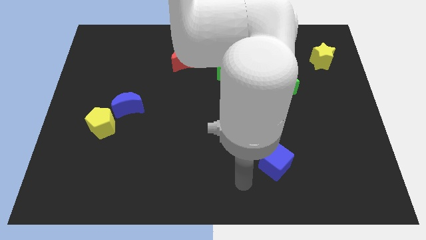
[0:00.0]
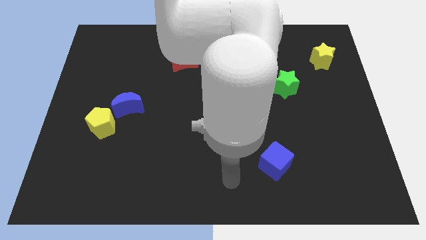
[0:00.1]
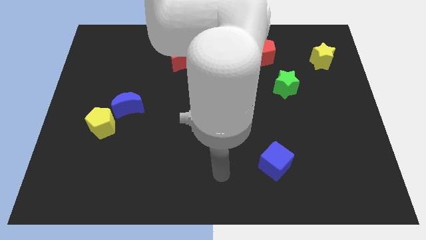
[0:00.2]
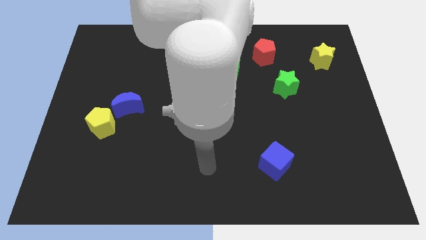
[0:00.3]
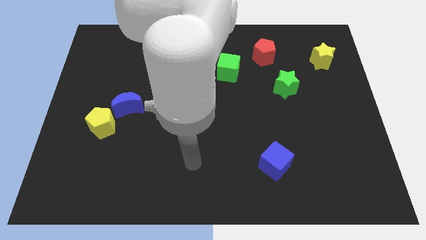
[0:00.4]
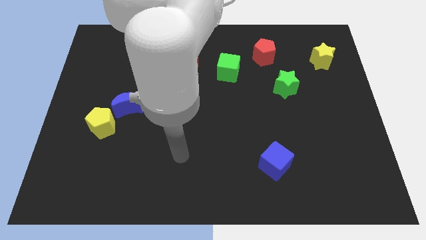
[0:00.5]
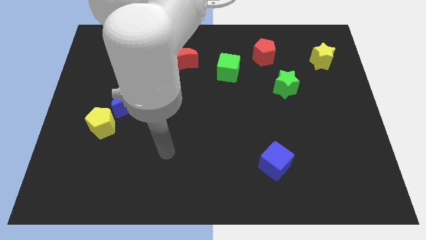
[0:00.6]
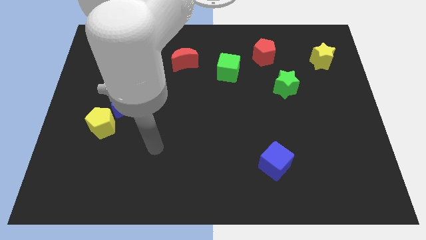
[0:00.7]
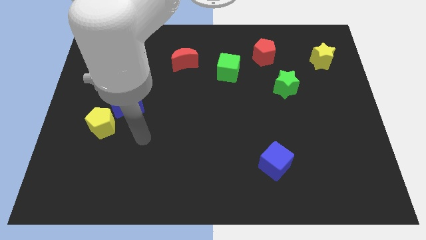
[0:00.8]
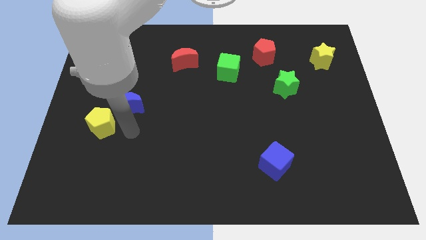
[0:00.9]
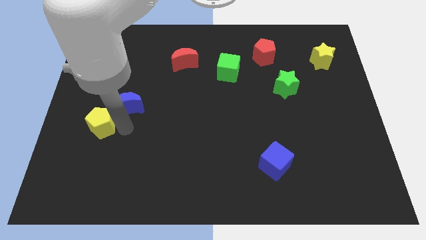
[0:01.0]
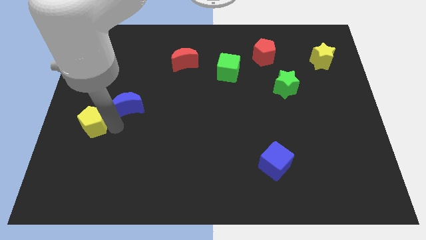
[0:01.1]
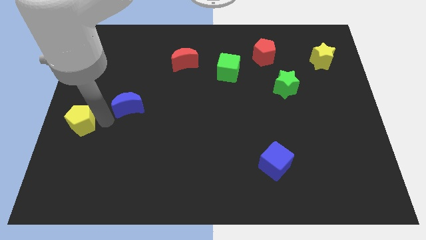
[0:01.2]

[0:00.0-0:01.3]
move the blue moon away from the yellow pentagon

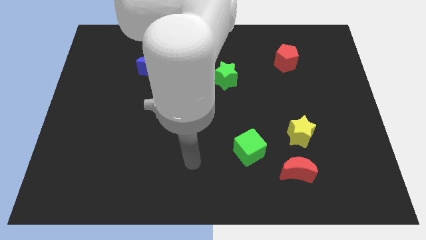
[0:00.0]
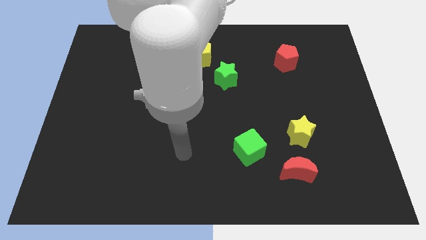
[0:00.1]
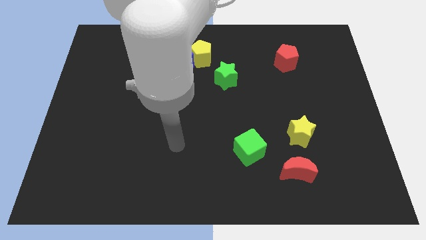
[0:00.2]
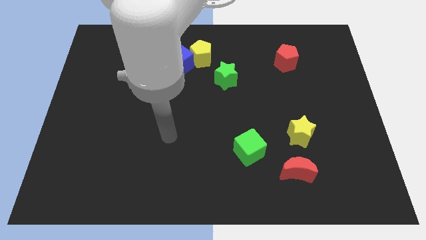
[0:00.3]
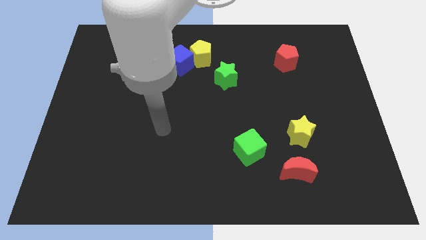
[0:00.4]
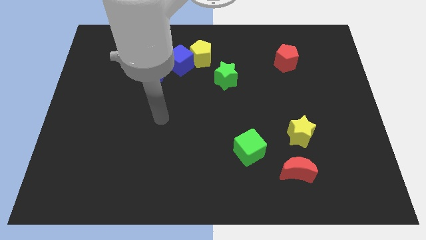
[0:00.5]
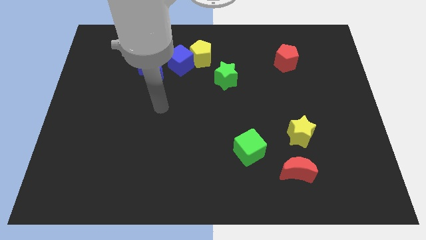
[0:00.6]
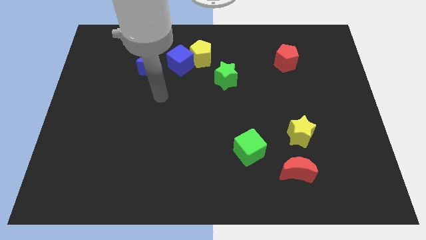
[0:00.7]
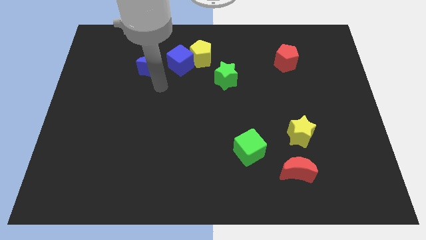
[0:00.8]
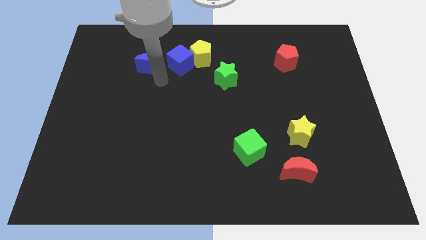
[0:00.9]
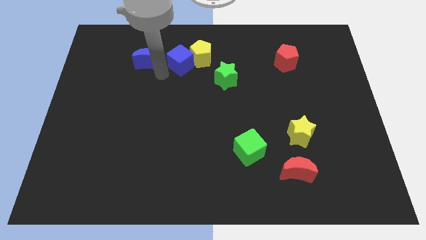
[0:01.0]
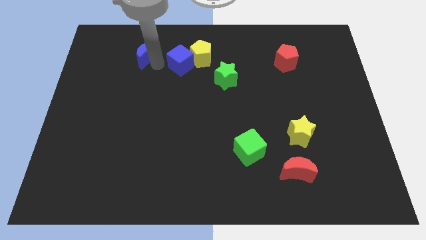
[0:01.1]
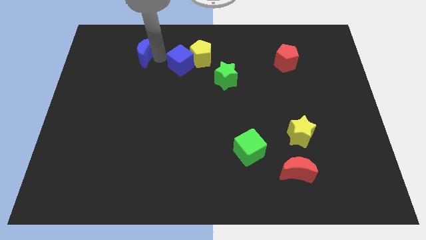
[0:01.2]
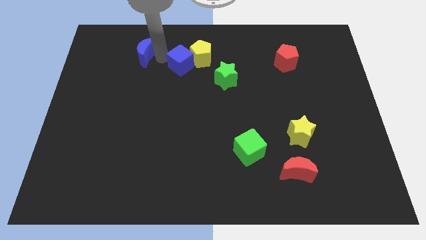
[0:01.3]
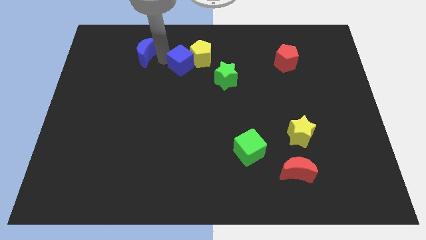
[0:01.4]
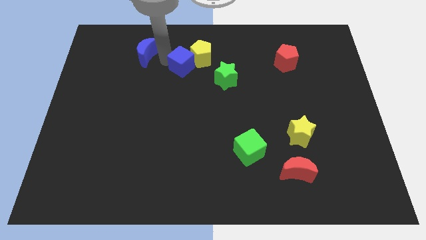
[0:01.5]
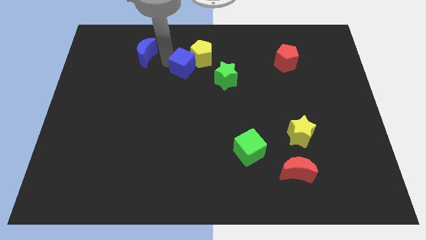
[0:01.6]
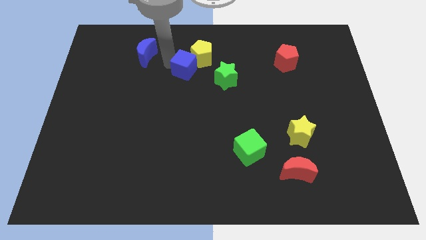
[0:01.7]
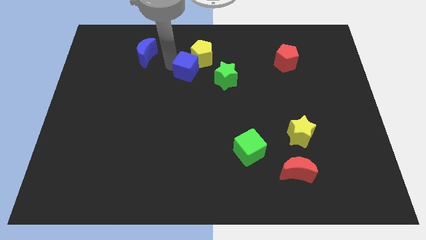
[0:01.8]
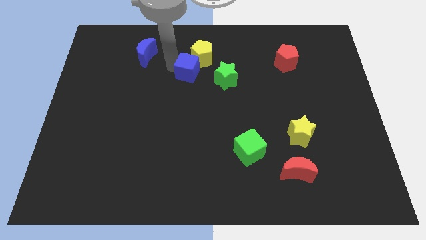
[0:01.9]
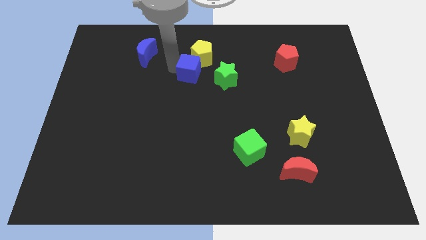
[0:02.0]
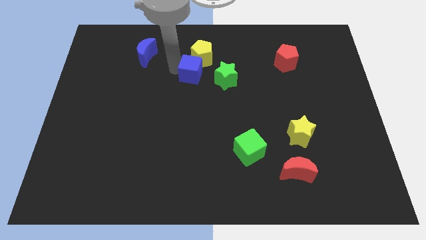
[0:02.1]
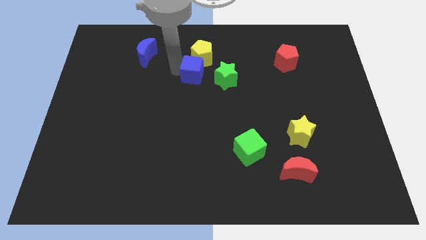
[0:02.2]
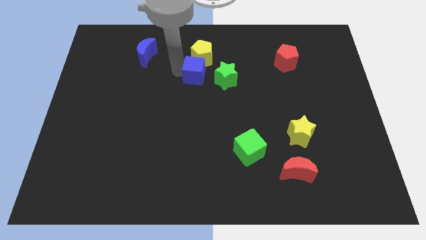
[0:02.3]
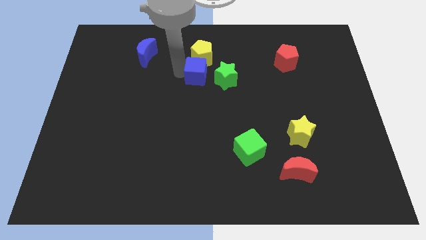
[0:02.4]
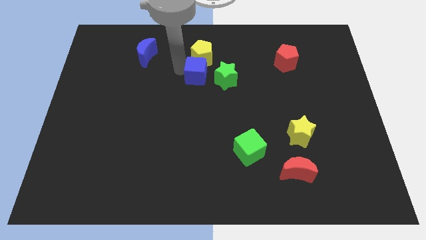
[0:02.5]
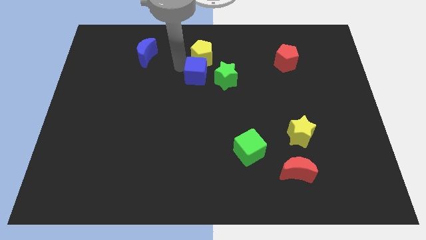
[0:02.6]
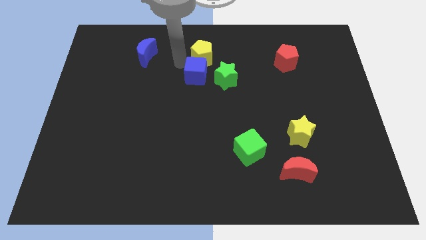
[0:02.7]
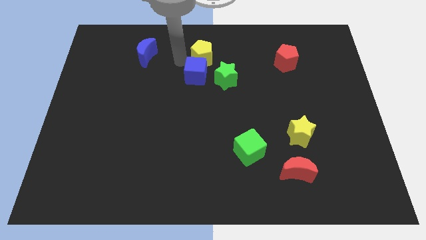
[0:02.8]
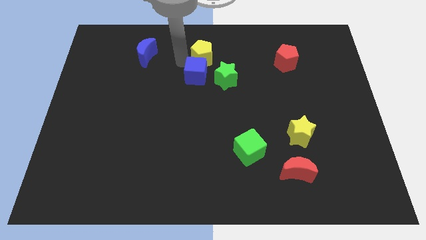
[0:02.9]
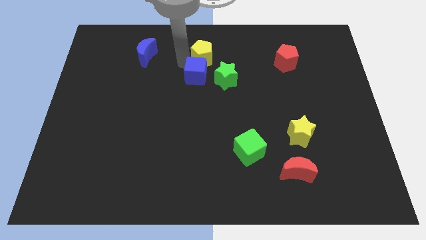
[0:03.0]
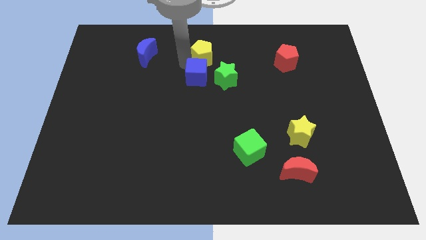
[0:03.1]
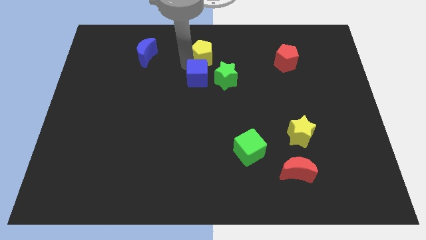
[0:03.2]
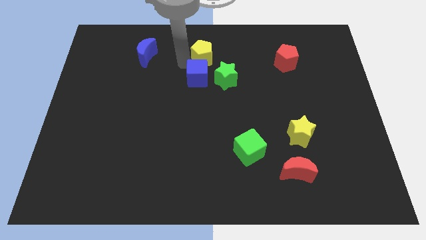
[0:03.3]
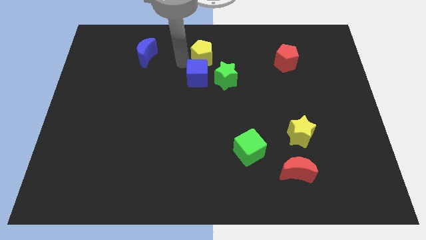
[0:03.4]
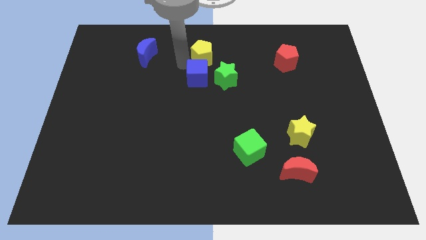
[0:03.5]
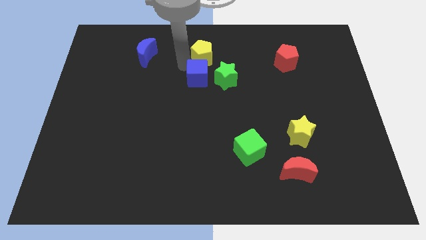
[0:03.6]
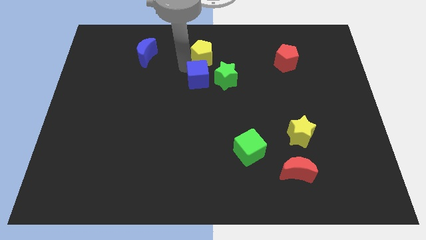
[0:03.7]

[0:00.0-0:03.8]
move the blue cube away from the yellow pentagon and blue moon

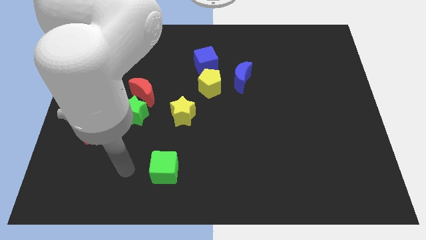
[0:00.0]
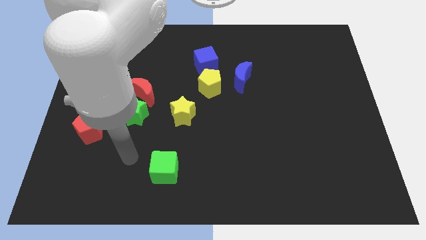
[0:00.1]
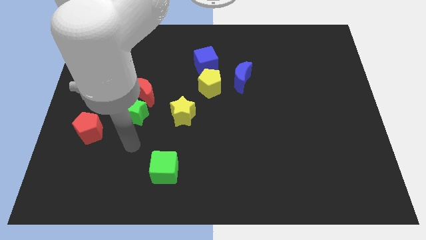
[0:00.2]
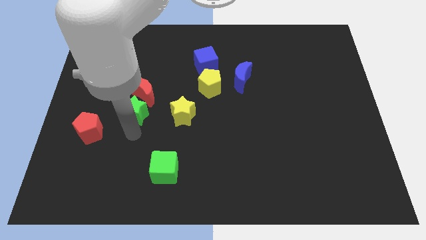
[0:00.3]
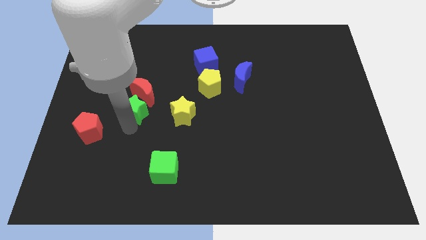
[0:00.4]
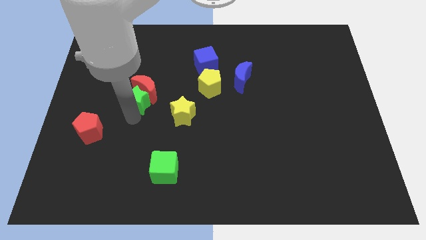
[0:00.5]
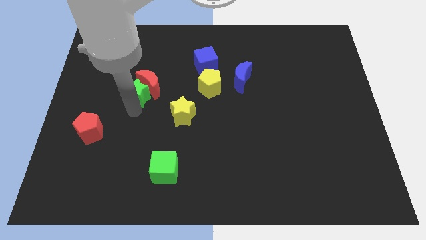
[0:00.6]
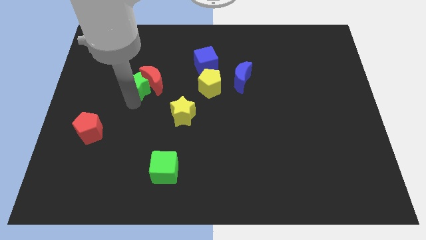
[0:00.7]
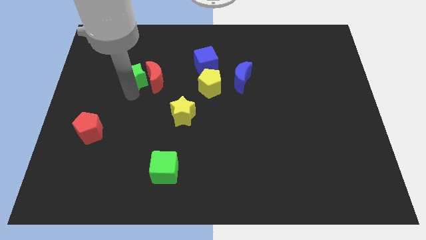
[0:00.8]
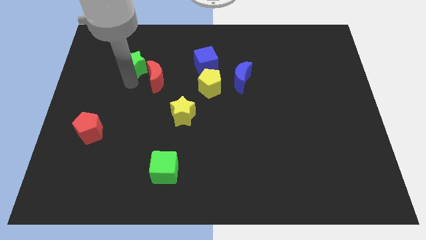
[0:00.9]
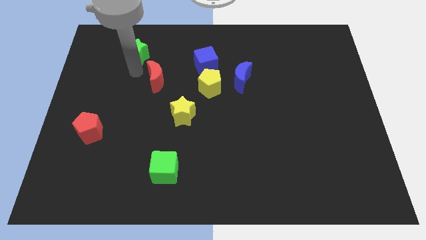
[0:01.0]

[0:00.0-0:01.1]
pull the red moon apart from the green star

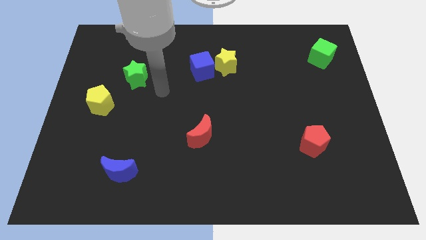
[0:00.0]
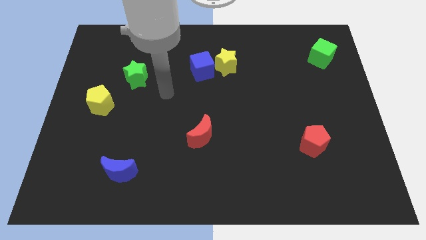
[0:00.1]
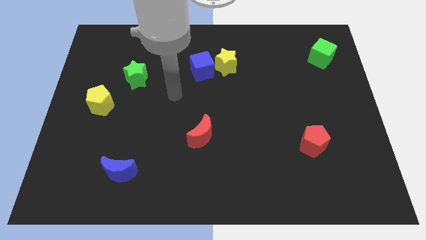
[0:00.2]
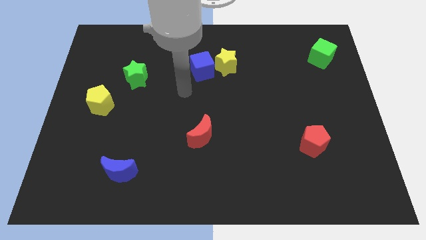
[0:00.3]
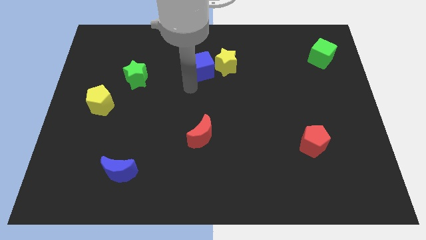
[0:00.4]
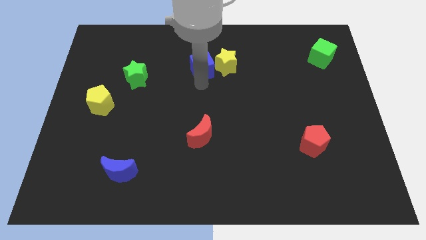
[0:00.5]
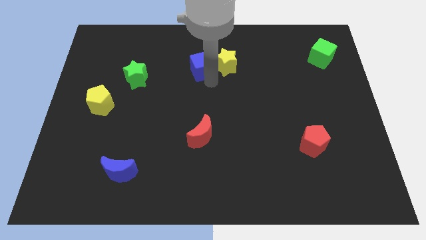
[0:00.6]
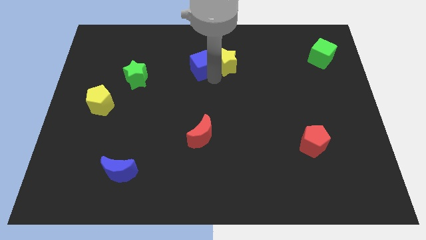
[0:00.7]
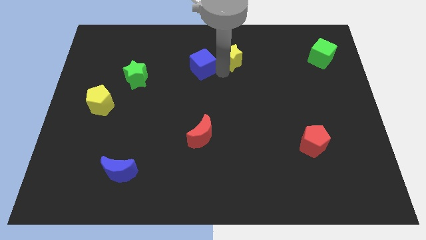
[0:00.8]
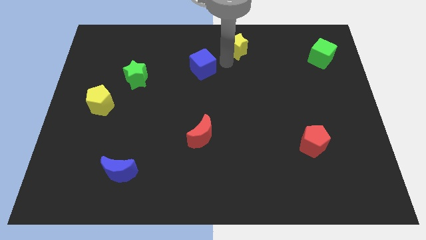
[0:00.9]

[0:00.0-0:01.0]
separate the blue cube from the yellow star

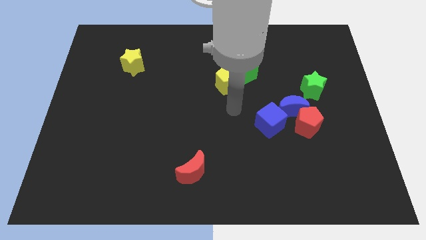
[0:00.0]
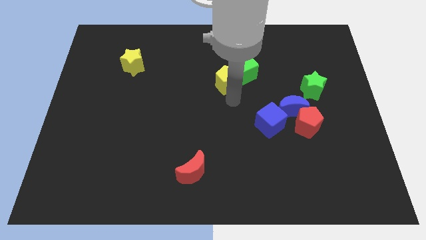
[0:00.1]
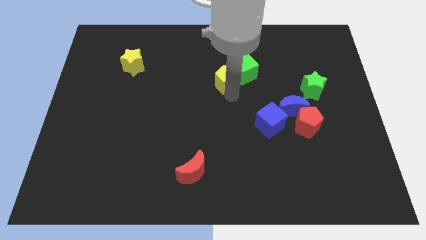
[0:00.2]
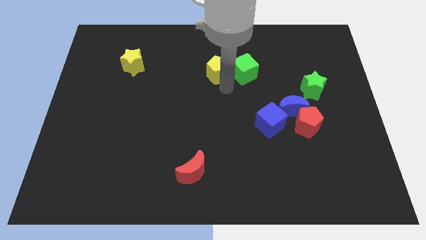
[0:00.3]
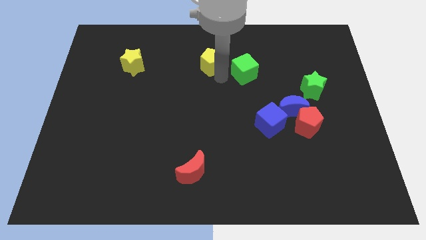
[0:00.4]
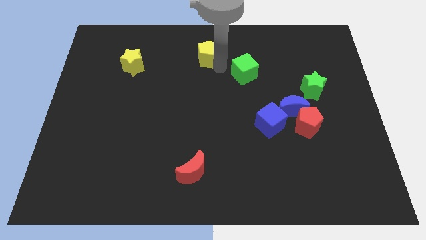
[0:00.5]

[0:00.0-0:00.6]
move the green cube away from the yellow pentagon

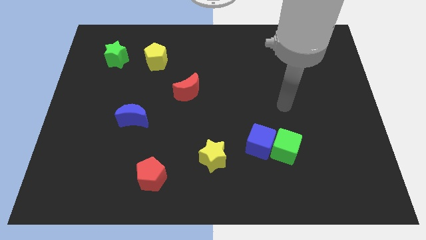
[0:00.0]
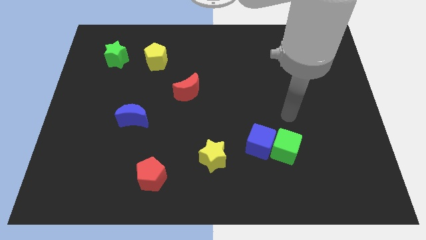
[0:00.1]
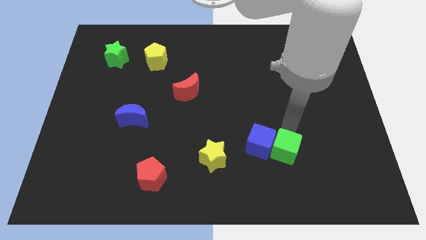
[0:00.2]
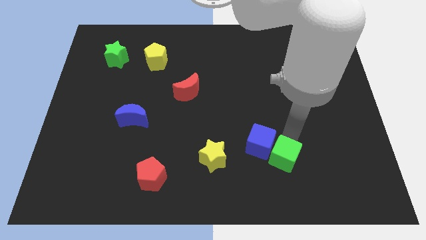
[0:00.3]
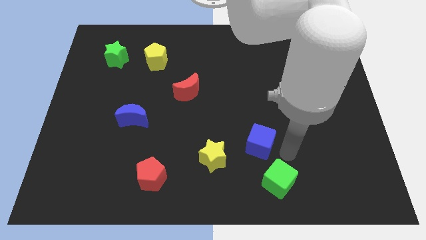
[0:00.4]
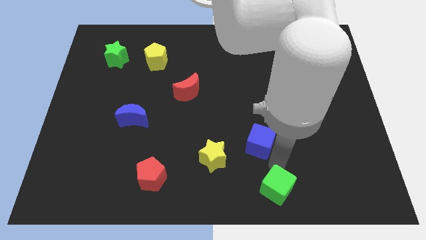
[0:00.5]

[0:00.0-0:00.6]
move the blue cube away from the green cube

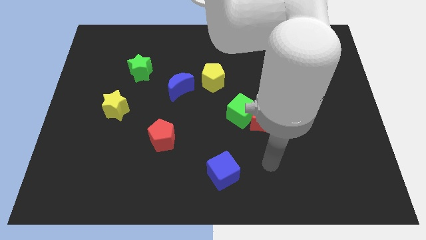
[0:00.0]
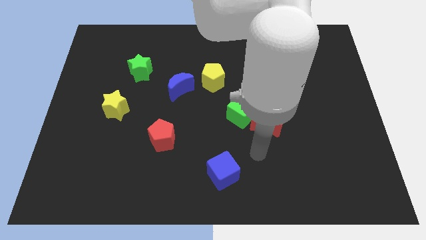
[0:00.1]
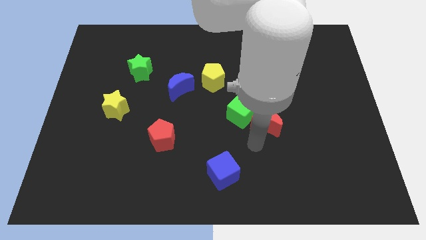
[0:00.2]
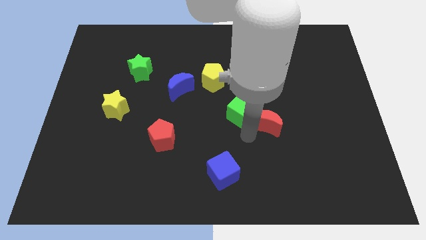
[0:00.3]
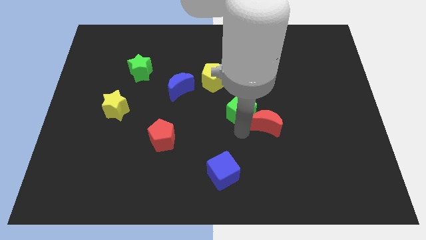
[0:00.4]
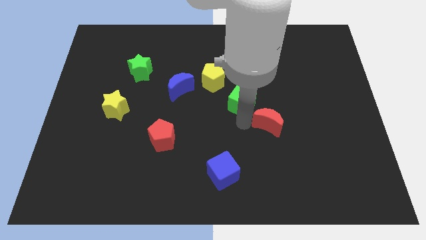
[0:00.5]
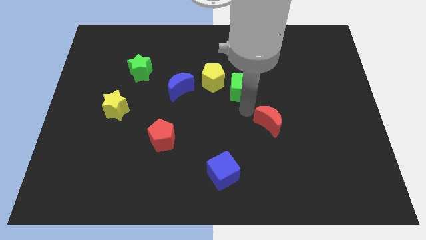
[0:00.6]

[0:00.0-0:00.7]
separate the red moon from the green cube

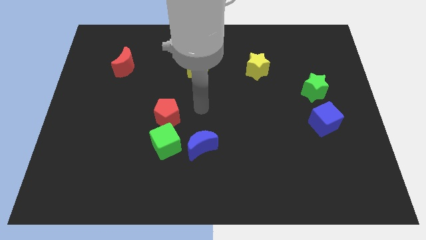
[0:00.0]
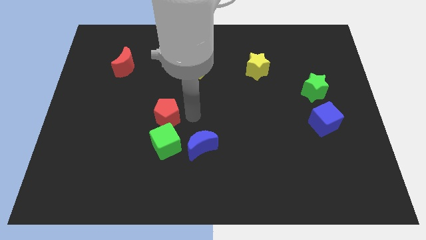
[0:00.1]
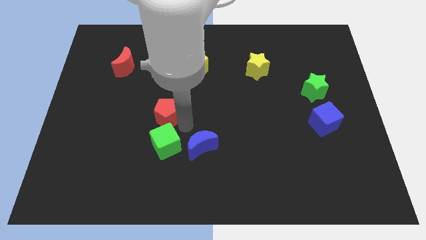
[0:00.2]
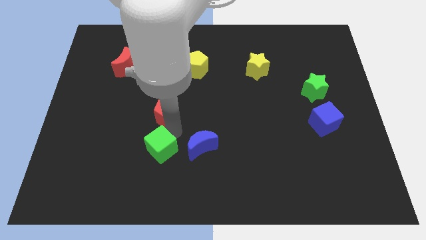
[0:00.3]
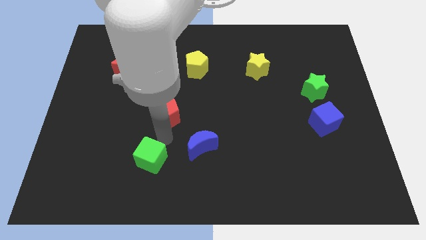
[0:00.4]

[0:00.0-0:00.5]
pull the red pentagon apart from the green cube
